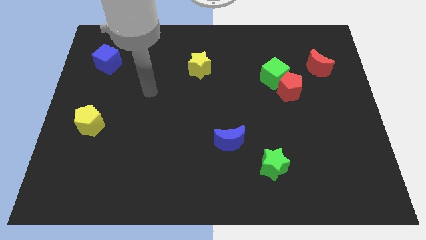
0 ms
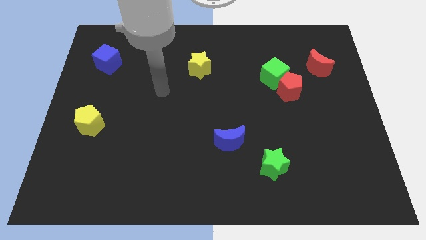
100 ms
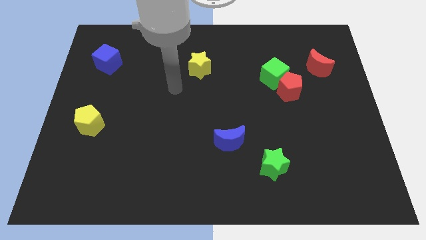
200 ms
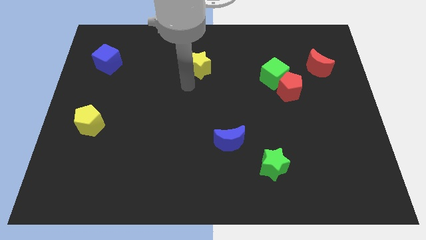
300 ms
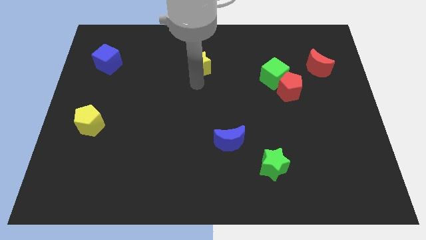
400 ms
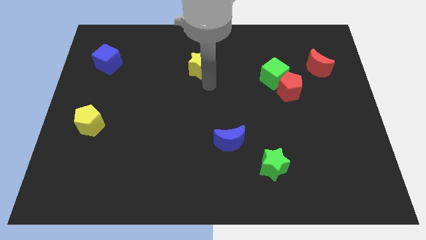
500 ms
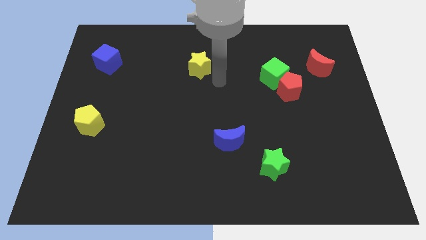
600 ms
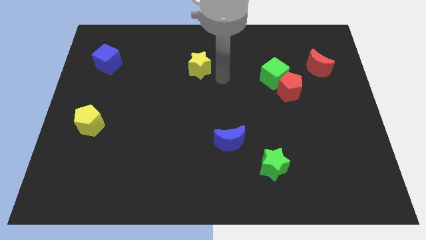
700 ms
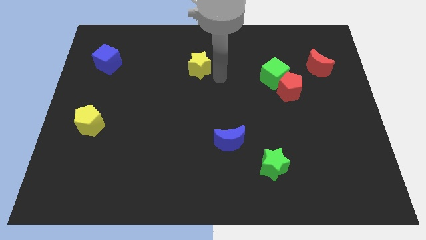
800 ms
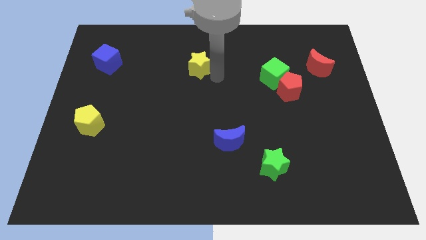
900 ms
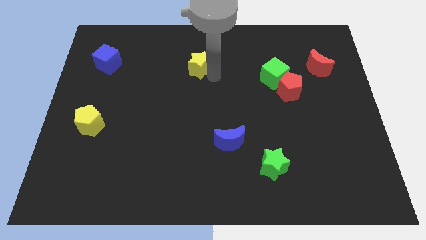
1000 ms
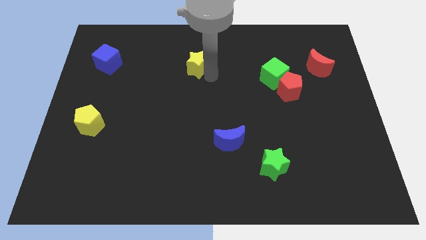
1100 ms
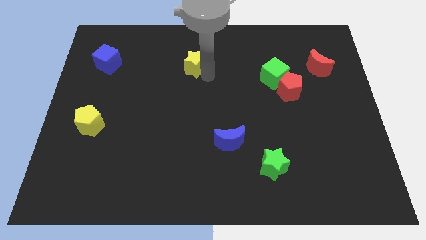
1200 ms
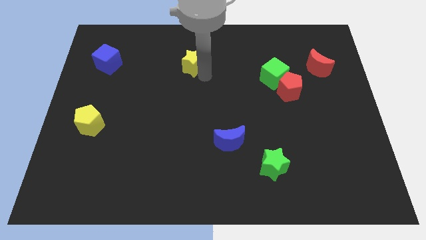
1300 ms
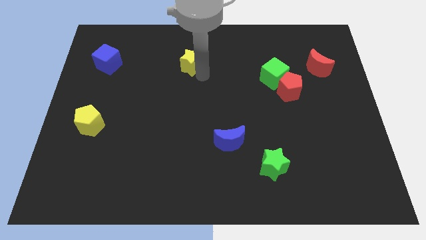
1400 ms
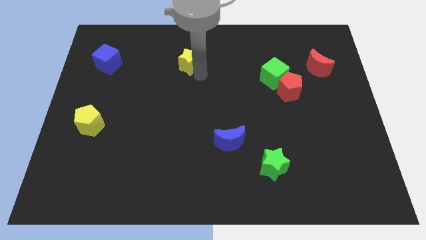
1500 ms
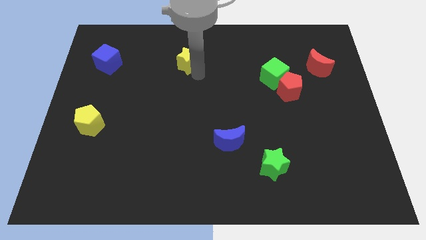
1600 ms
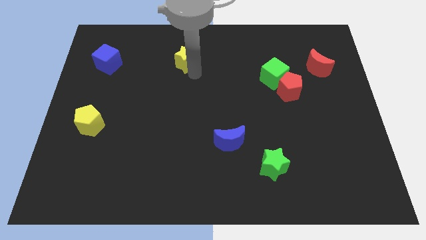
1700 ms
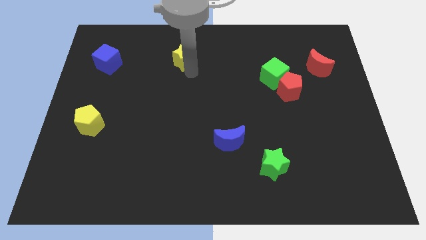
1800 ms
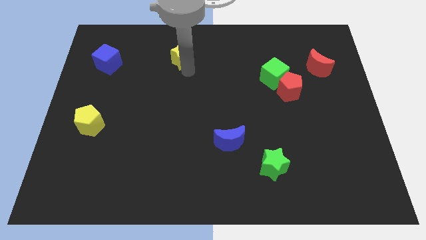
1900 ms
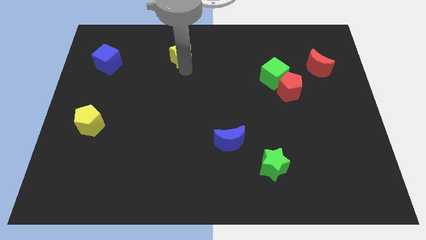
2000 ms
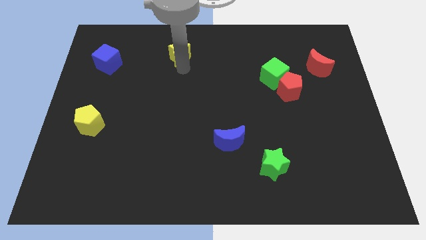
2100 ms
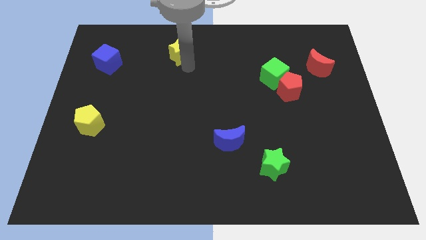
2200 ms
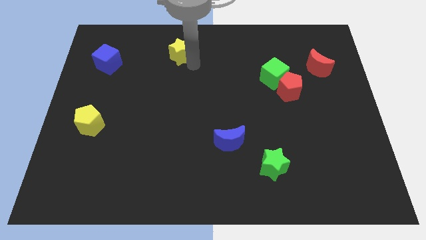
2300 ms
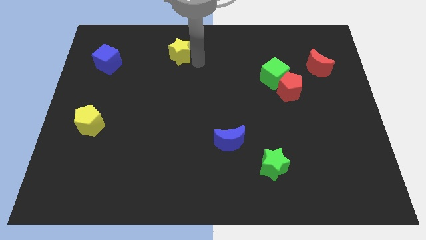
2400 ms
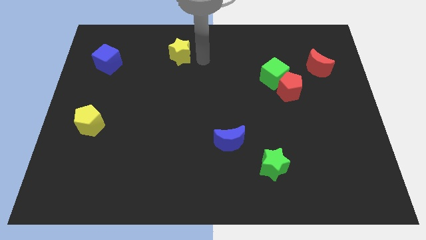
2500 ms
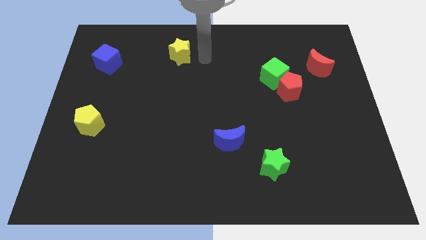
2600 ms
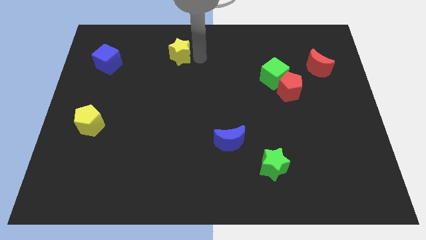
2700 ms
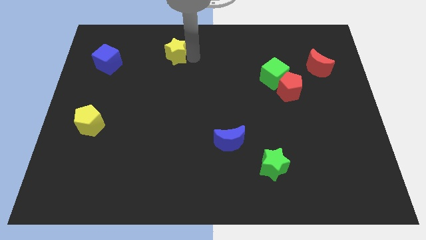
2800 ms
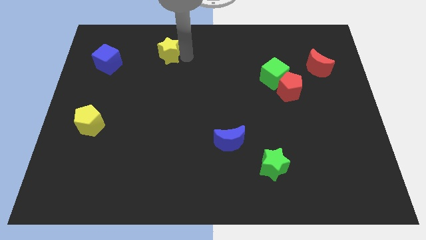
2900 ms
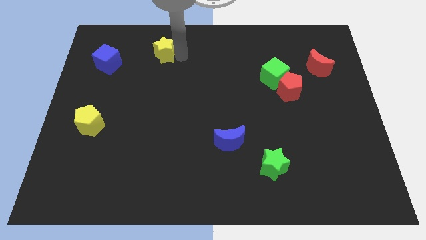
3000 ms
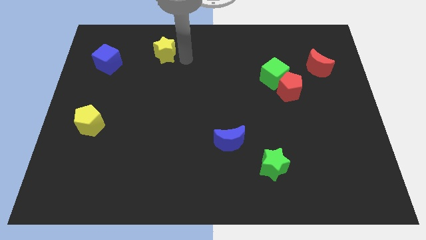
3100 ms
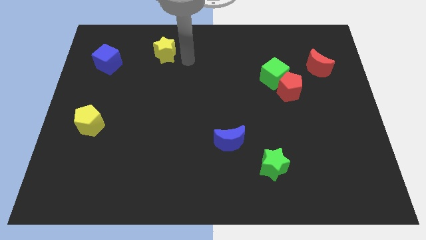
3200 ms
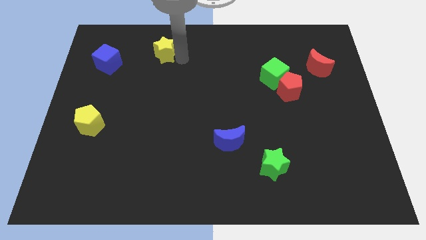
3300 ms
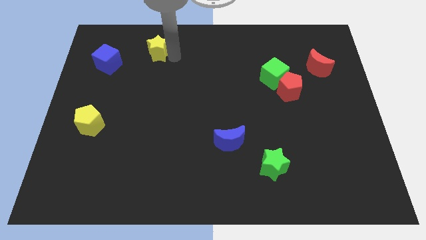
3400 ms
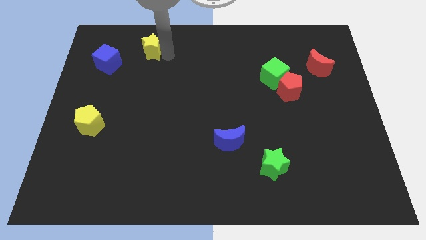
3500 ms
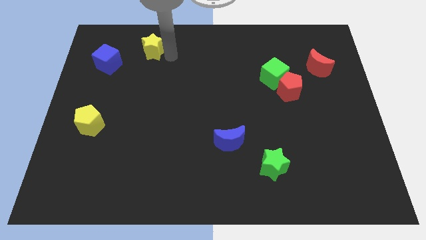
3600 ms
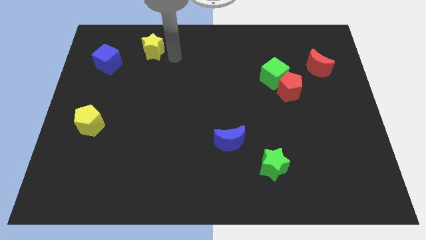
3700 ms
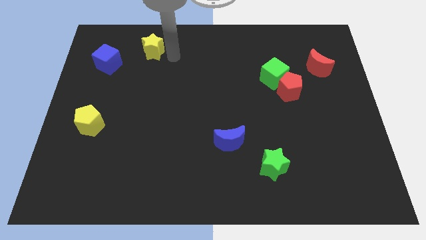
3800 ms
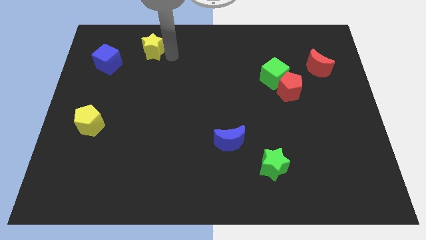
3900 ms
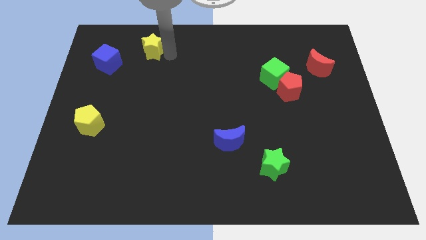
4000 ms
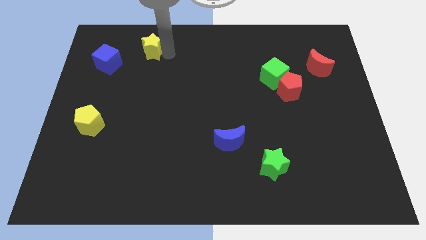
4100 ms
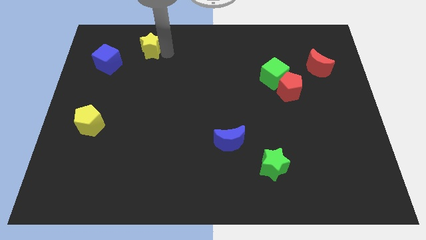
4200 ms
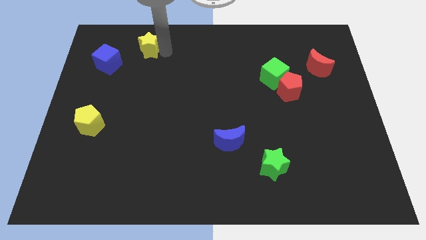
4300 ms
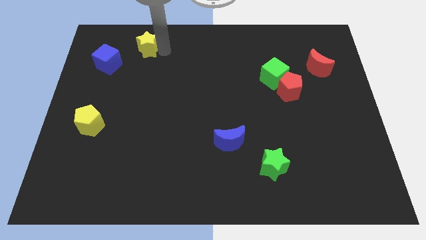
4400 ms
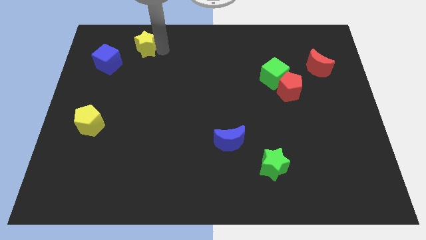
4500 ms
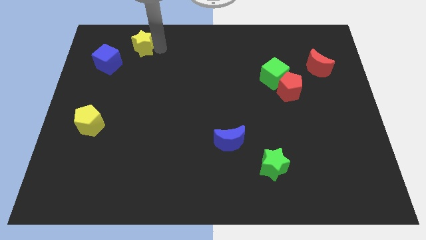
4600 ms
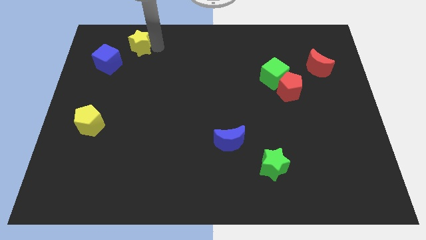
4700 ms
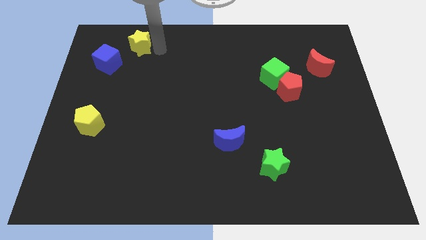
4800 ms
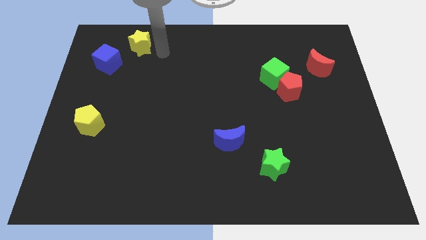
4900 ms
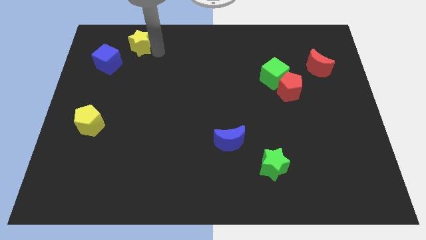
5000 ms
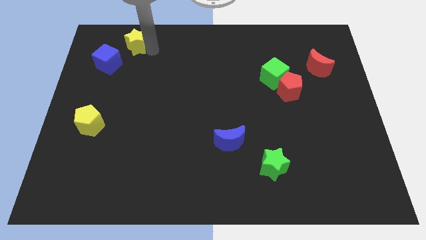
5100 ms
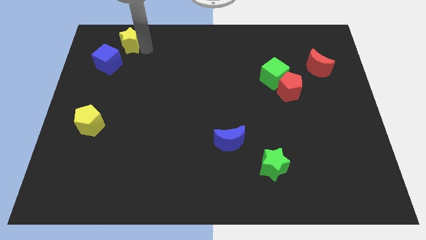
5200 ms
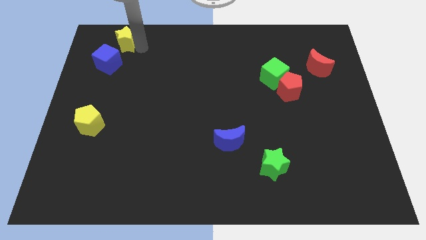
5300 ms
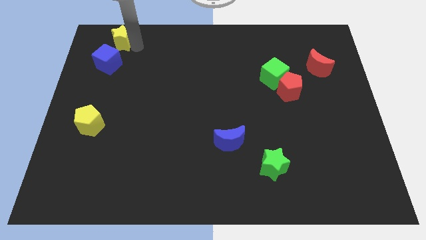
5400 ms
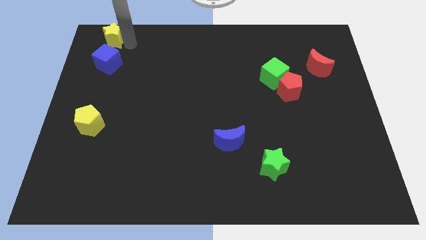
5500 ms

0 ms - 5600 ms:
slide the yellow star to the upper left corner

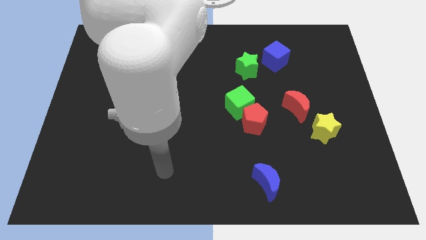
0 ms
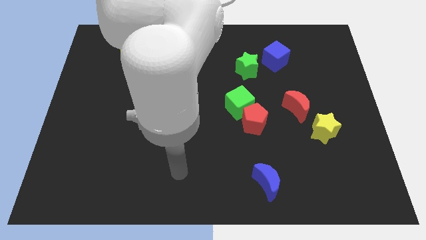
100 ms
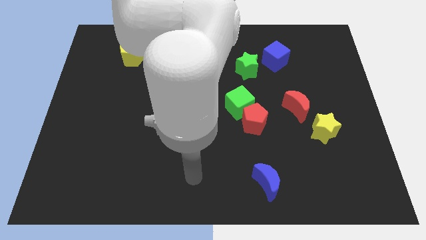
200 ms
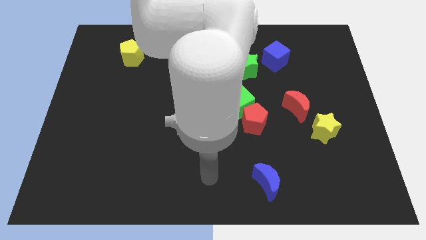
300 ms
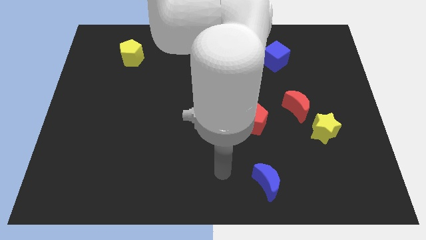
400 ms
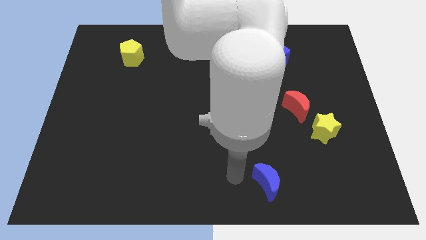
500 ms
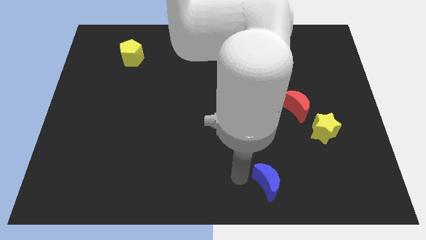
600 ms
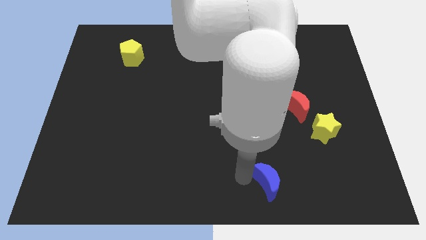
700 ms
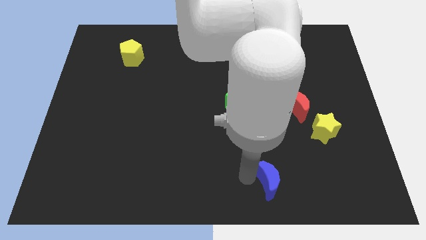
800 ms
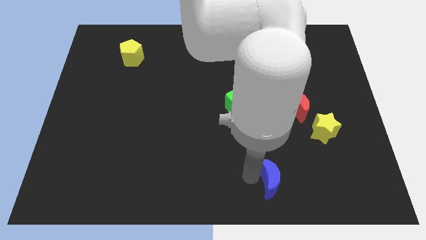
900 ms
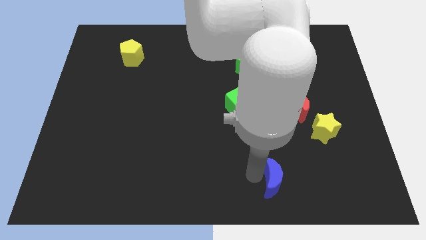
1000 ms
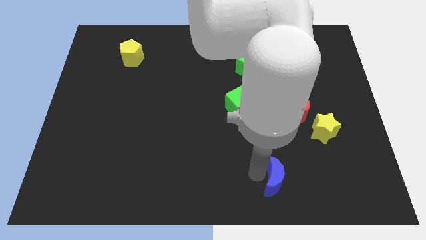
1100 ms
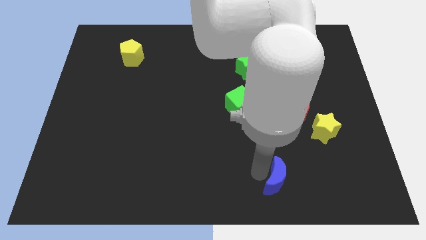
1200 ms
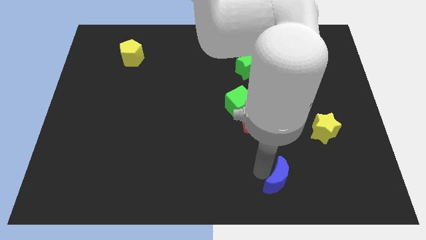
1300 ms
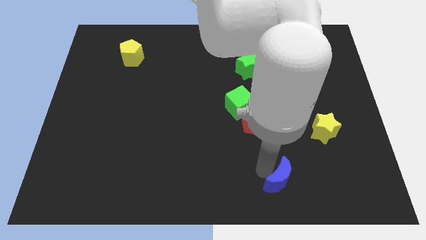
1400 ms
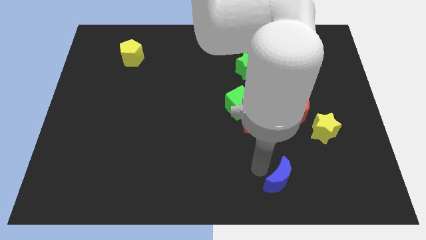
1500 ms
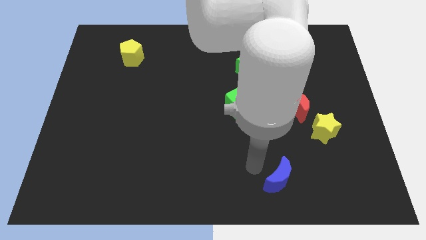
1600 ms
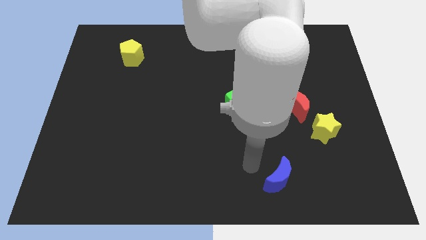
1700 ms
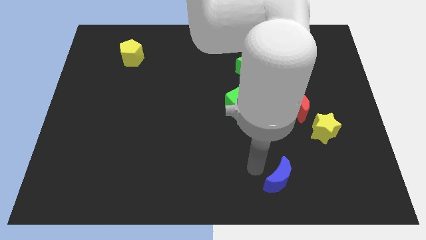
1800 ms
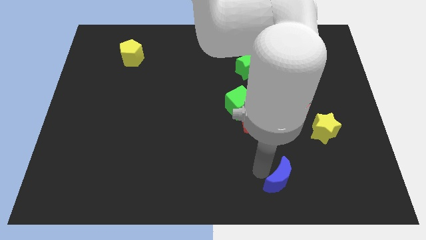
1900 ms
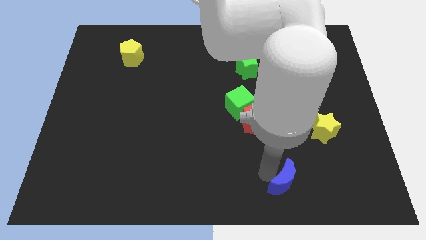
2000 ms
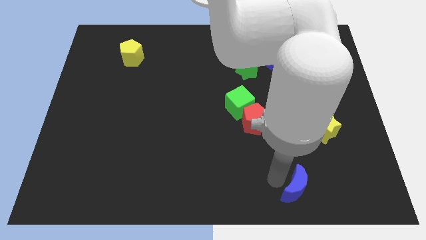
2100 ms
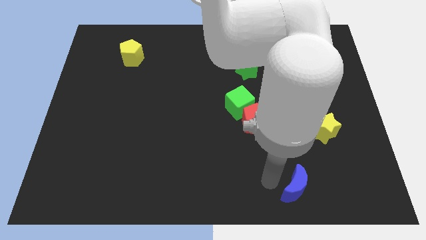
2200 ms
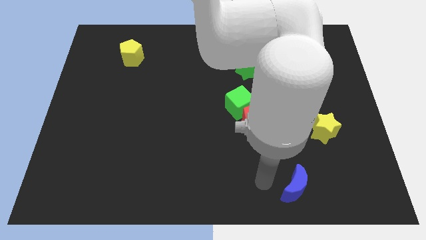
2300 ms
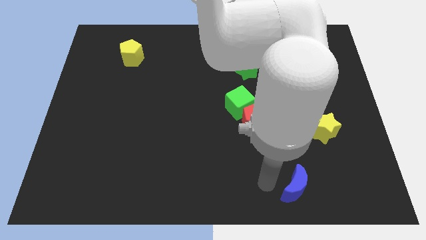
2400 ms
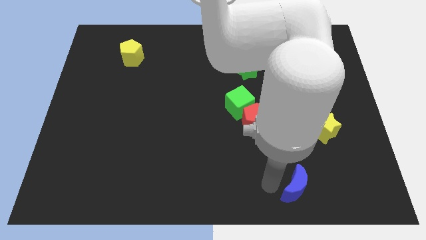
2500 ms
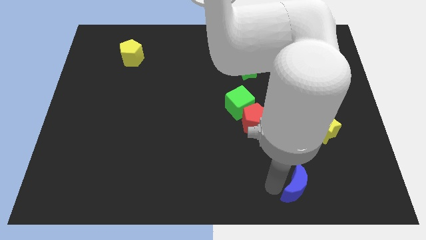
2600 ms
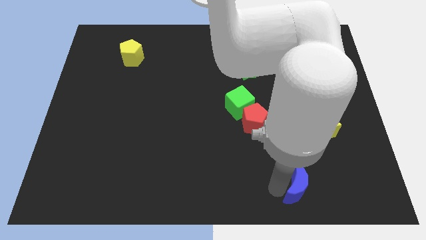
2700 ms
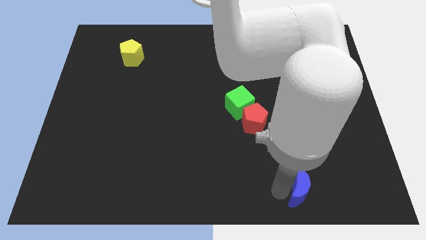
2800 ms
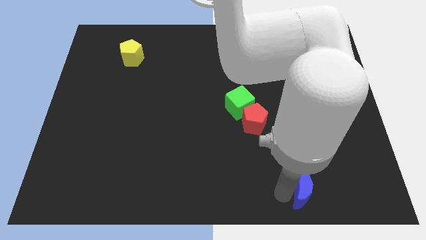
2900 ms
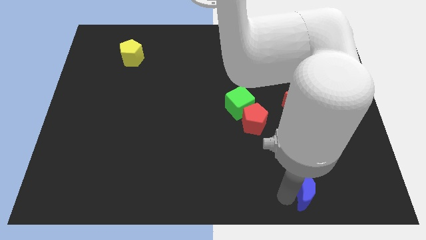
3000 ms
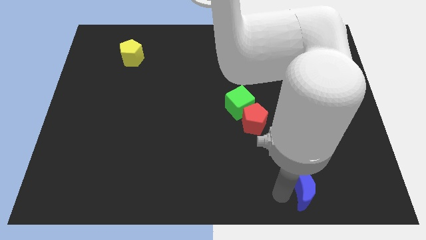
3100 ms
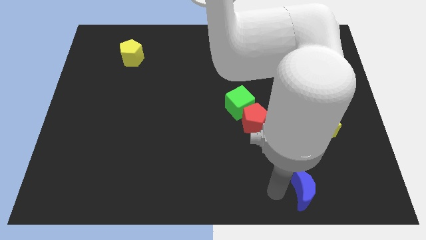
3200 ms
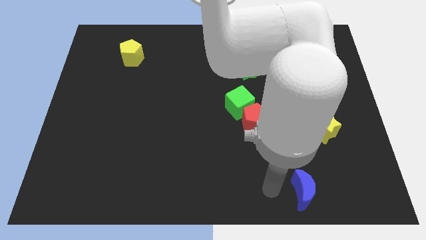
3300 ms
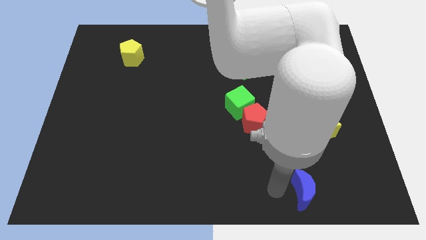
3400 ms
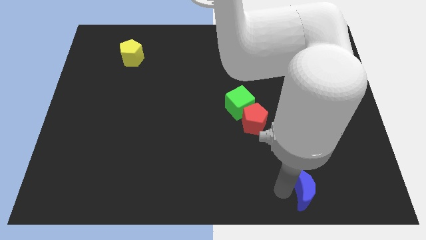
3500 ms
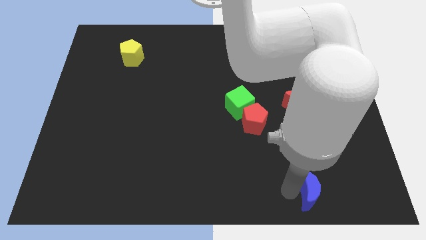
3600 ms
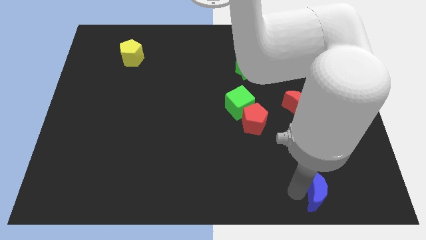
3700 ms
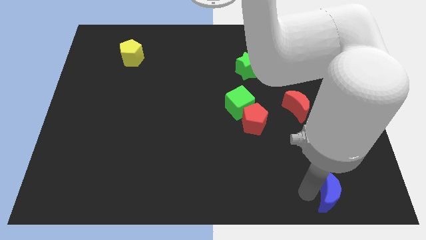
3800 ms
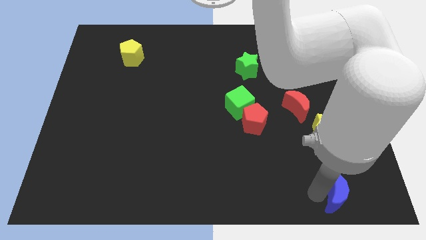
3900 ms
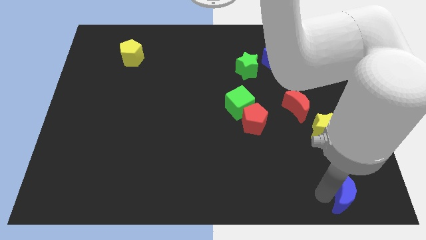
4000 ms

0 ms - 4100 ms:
put the blue moon to the bottom right
